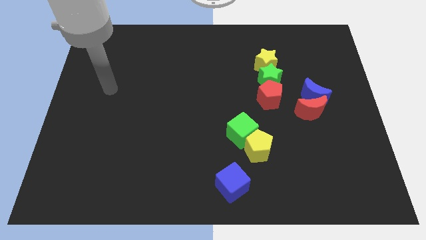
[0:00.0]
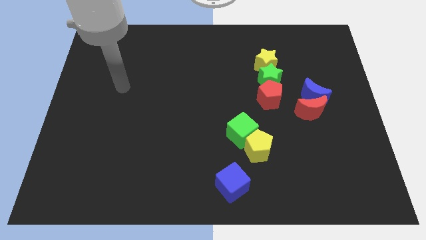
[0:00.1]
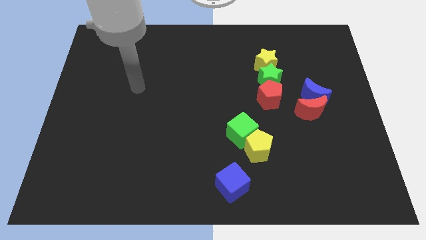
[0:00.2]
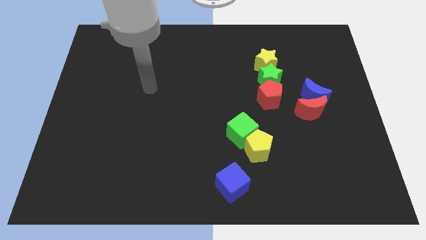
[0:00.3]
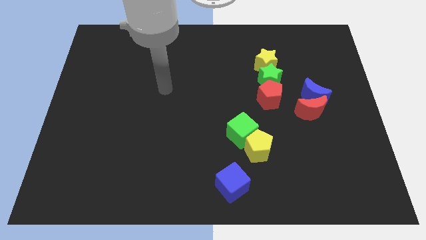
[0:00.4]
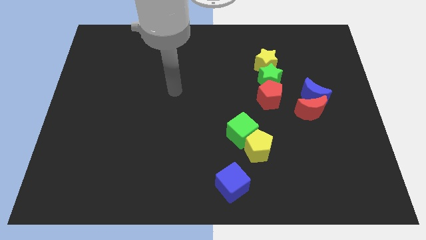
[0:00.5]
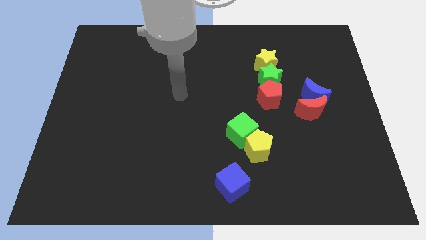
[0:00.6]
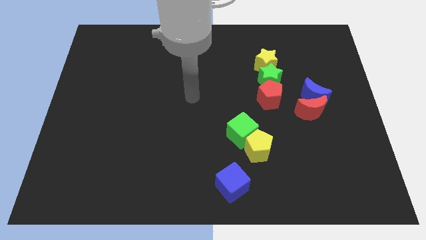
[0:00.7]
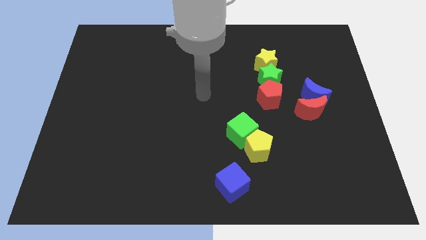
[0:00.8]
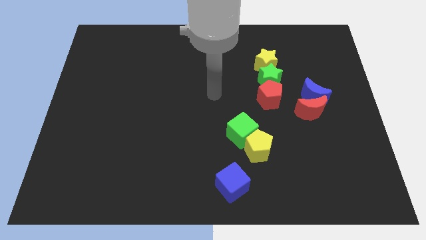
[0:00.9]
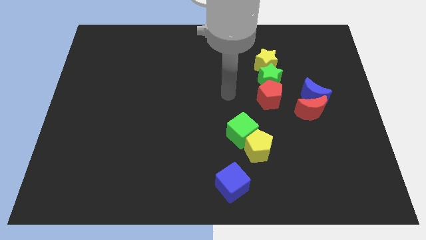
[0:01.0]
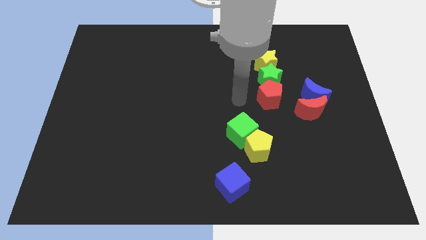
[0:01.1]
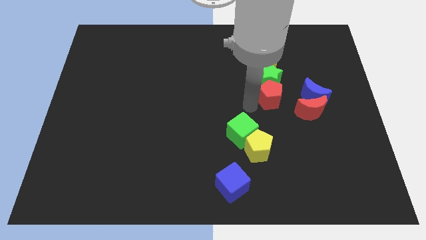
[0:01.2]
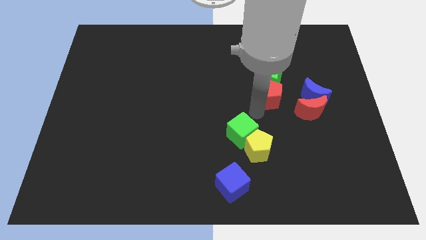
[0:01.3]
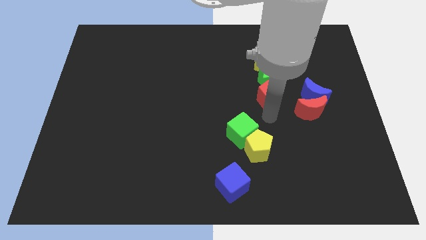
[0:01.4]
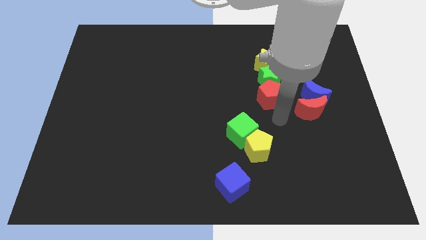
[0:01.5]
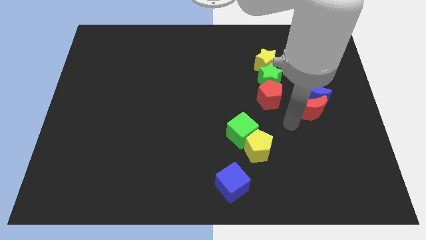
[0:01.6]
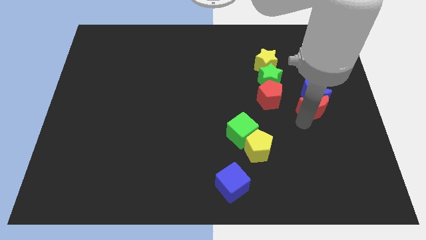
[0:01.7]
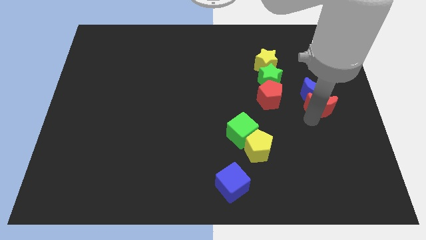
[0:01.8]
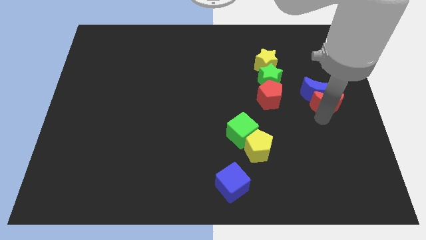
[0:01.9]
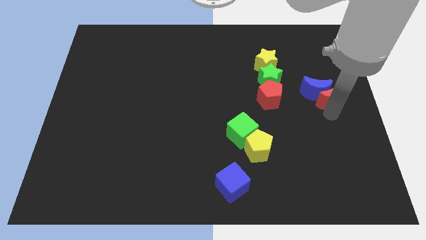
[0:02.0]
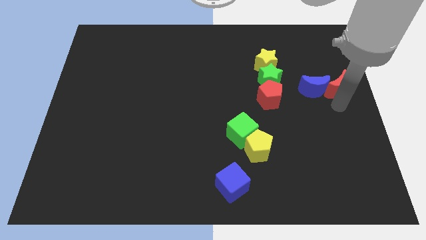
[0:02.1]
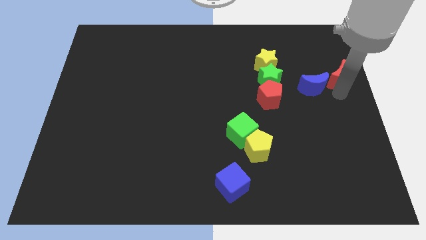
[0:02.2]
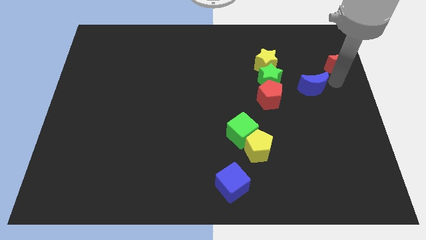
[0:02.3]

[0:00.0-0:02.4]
move the blue moon away from the red moon

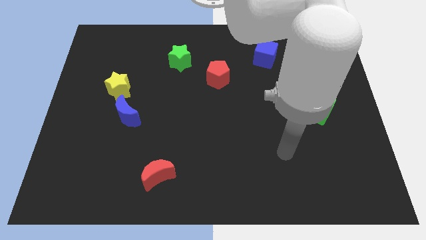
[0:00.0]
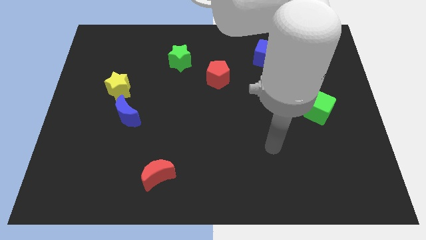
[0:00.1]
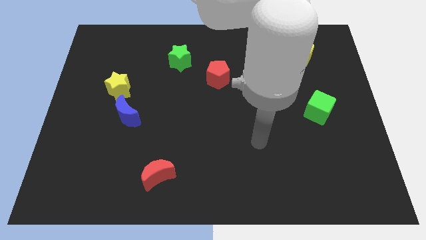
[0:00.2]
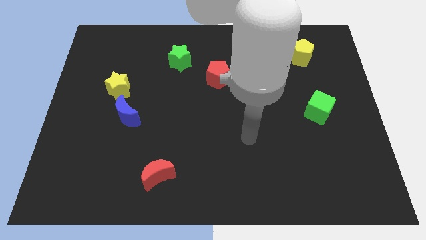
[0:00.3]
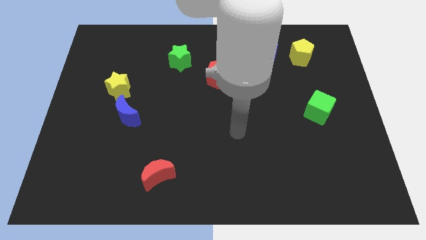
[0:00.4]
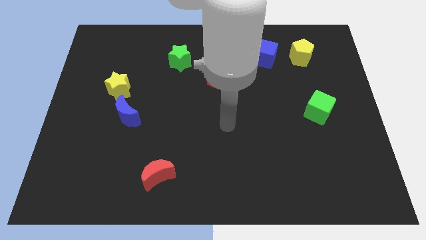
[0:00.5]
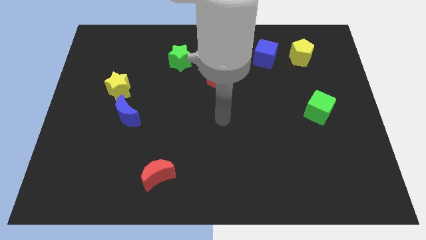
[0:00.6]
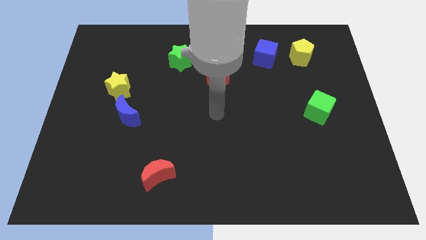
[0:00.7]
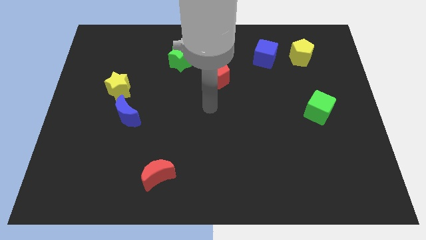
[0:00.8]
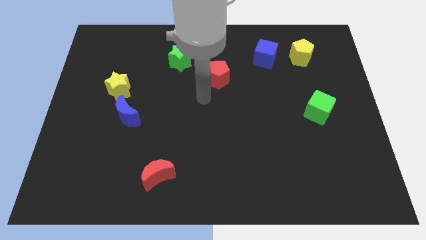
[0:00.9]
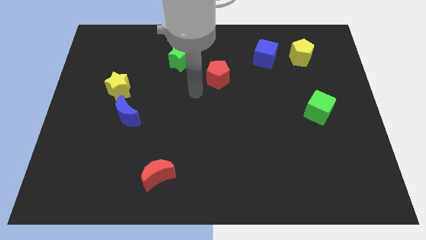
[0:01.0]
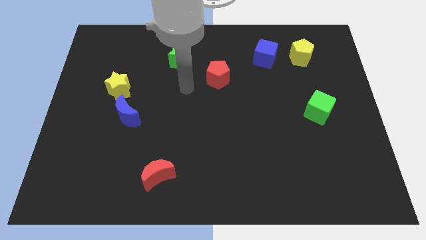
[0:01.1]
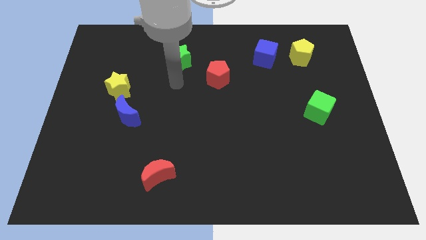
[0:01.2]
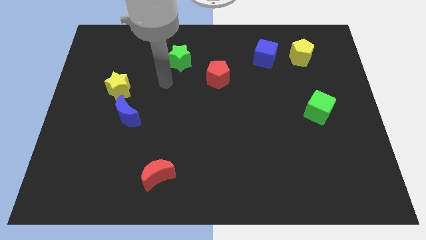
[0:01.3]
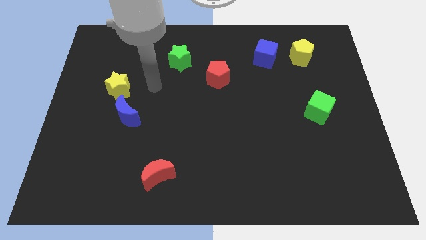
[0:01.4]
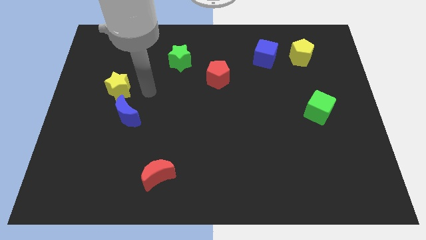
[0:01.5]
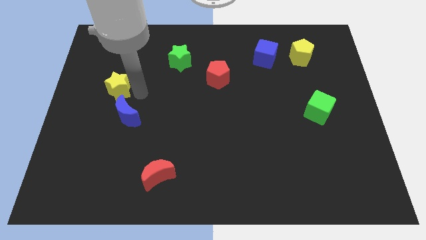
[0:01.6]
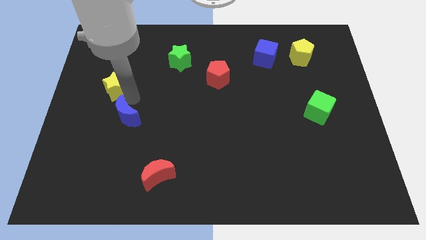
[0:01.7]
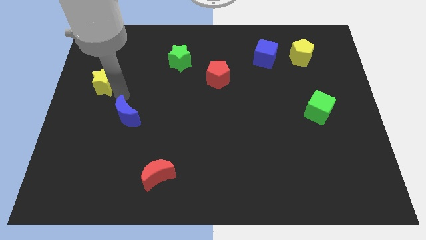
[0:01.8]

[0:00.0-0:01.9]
move the blue moon away from the yellow star

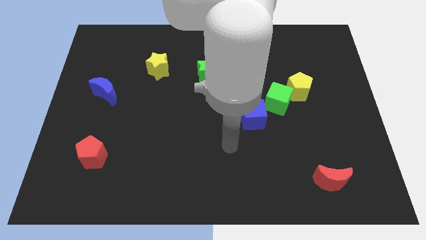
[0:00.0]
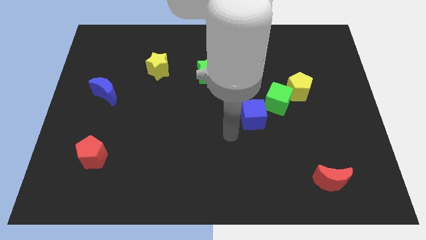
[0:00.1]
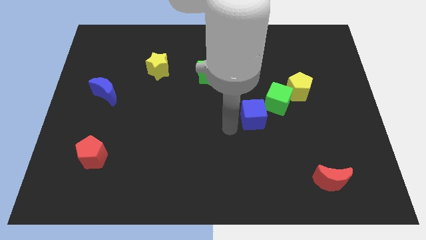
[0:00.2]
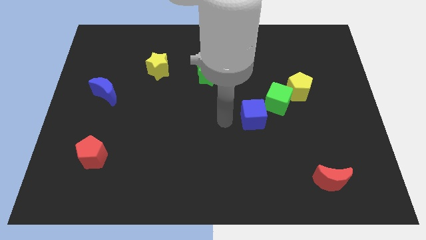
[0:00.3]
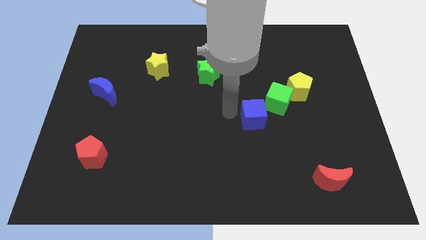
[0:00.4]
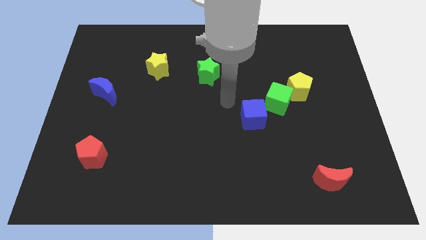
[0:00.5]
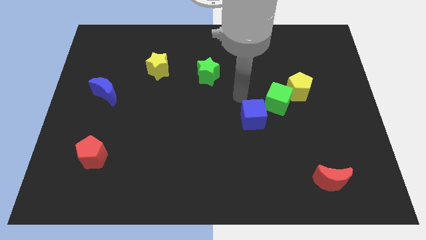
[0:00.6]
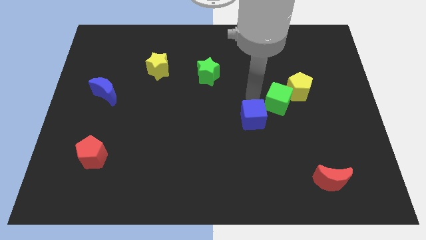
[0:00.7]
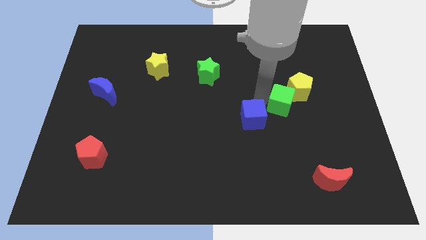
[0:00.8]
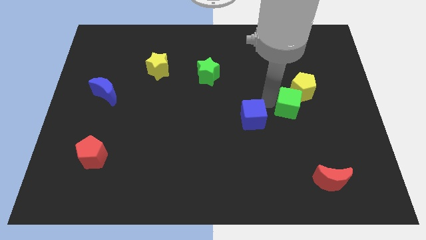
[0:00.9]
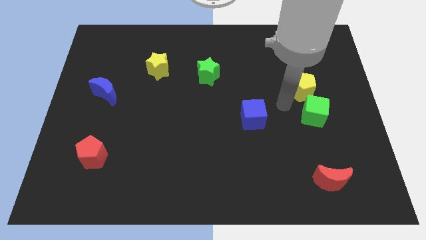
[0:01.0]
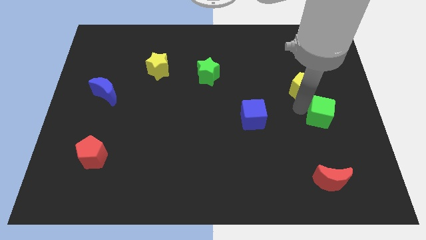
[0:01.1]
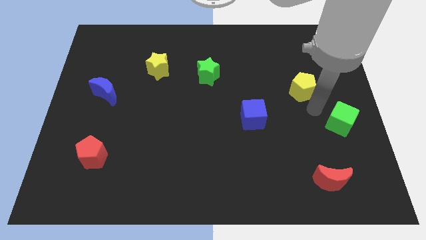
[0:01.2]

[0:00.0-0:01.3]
pull the yellow pentagon apart from the green cube

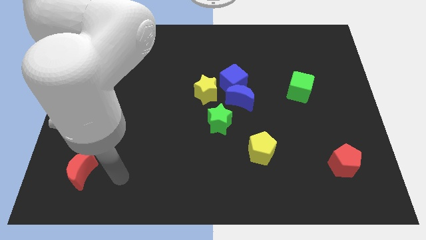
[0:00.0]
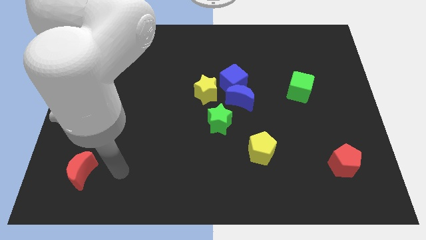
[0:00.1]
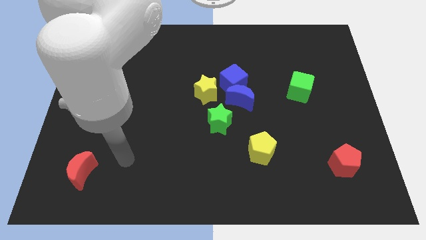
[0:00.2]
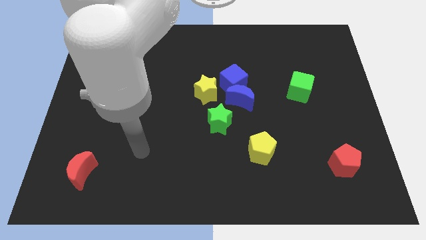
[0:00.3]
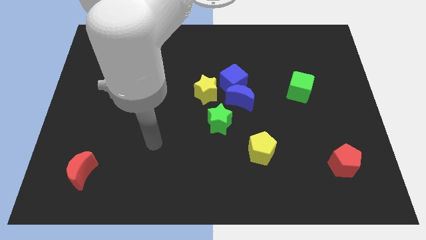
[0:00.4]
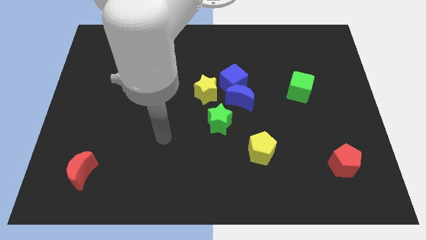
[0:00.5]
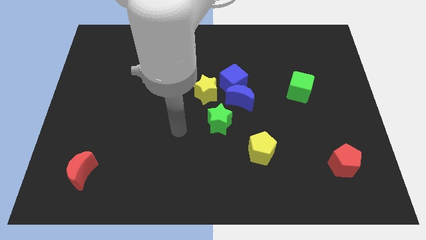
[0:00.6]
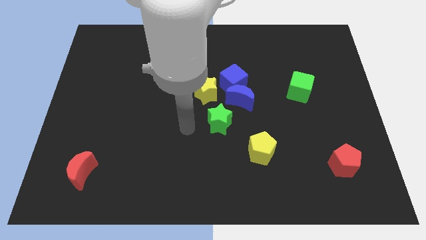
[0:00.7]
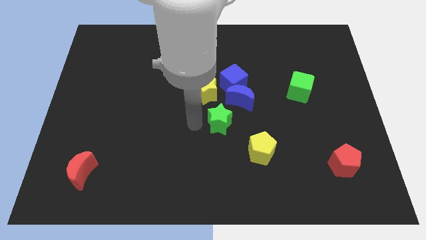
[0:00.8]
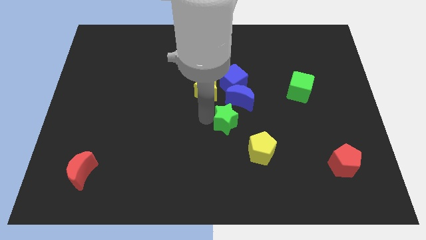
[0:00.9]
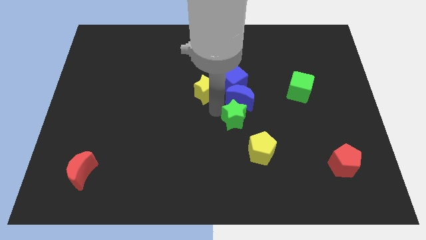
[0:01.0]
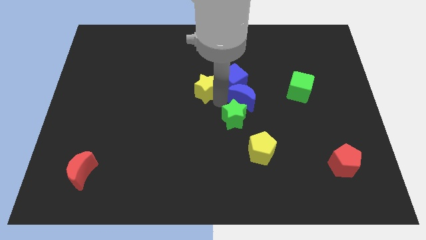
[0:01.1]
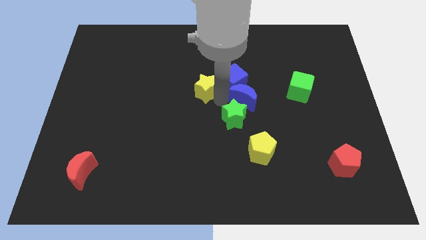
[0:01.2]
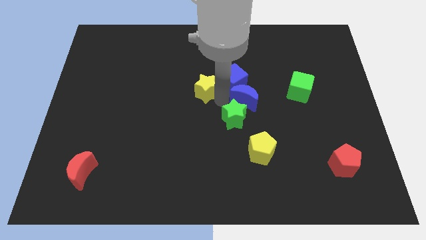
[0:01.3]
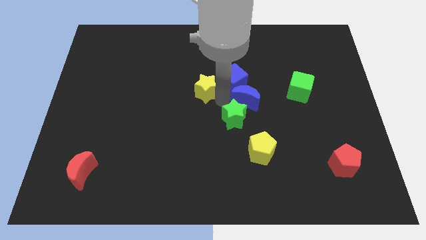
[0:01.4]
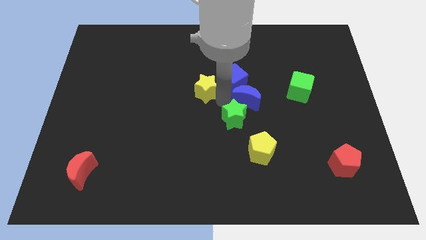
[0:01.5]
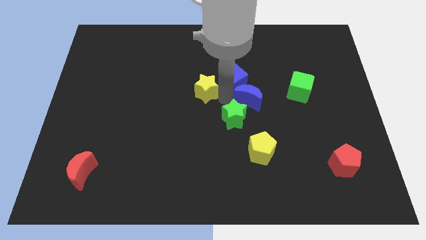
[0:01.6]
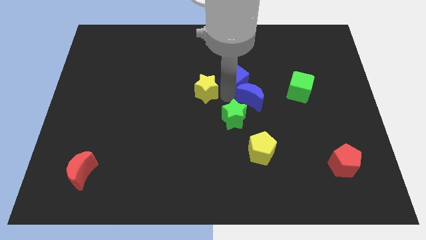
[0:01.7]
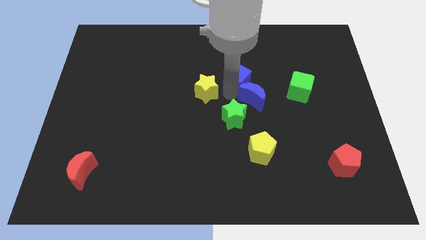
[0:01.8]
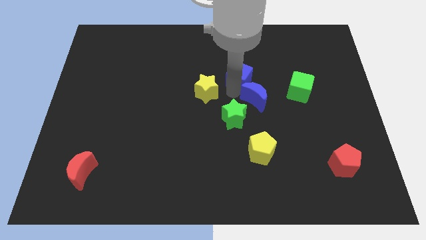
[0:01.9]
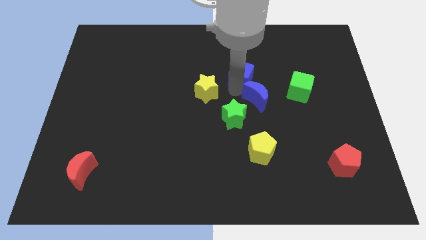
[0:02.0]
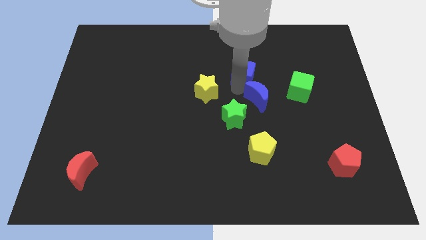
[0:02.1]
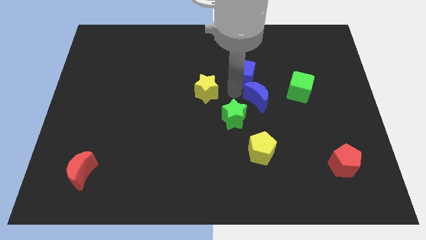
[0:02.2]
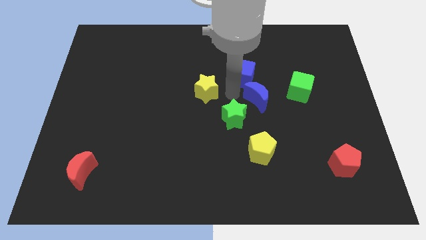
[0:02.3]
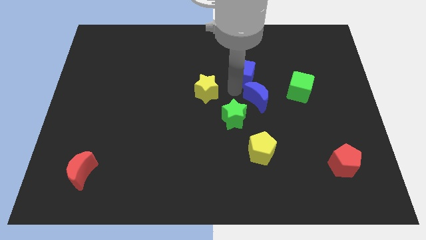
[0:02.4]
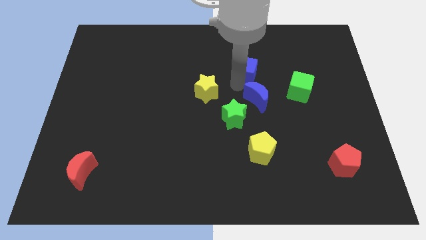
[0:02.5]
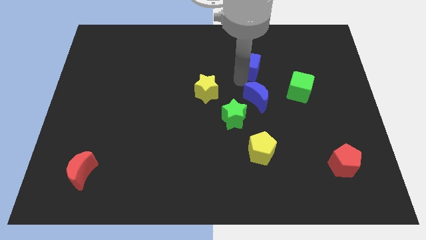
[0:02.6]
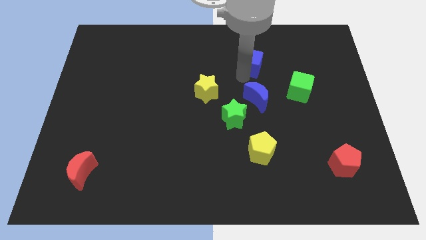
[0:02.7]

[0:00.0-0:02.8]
separate the blue cube from the blue moon and yellow star

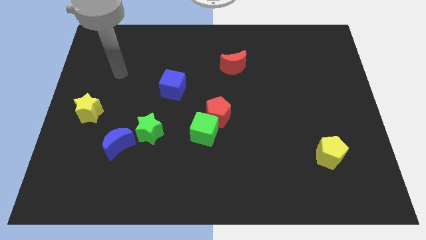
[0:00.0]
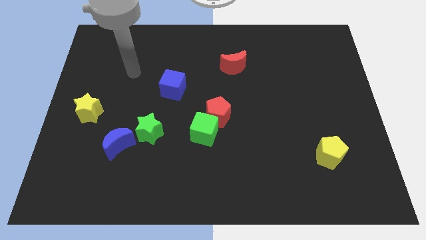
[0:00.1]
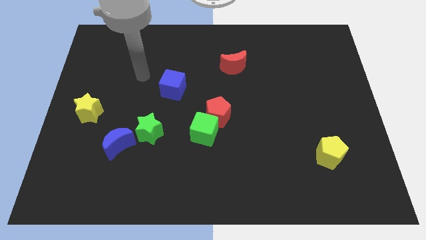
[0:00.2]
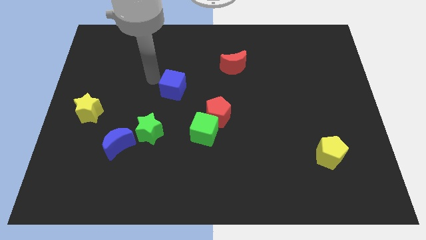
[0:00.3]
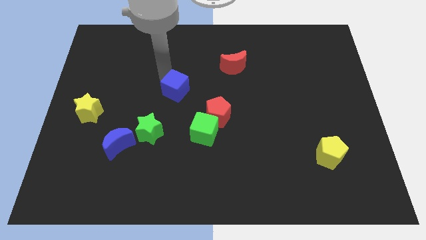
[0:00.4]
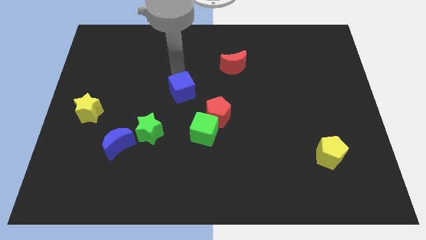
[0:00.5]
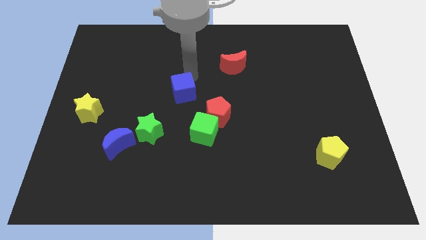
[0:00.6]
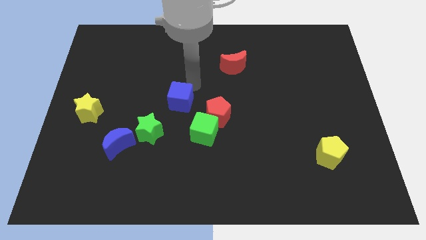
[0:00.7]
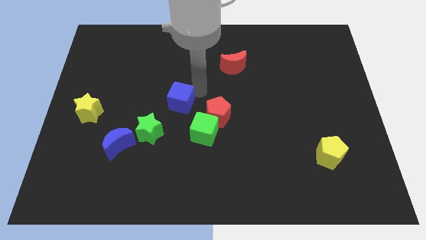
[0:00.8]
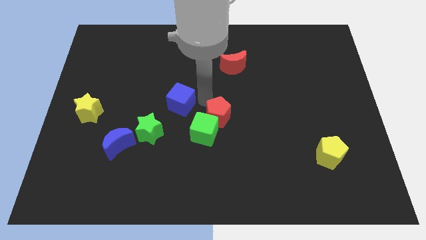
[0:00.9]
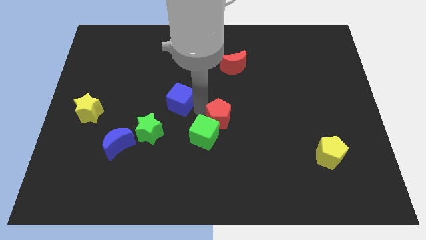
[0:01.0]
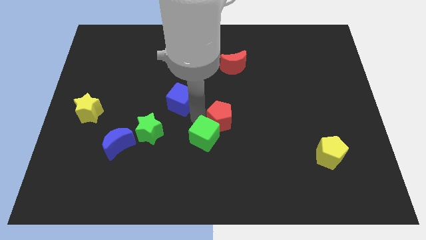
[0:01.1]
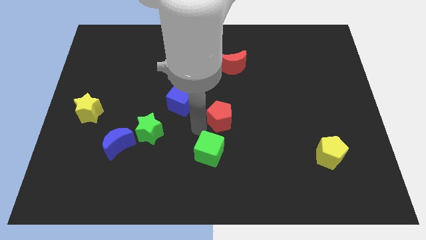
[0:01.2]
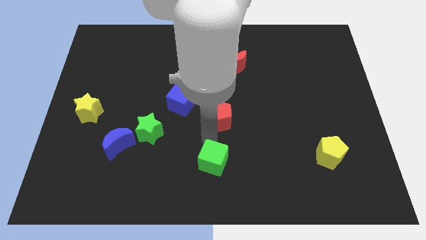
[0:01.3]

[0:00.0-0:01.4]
move the red pentagon away from the green cube
